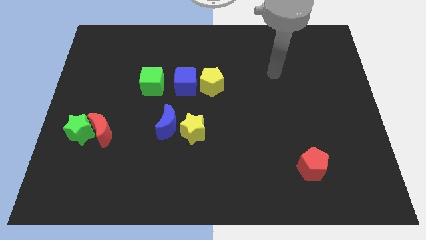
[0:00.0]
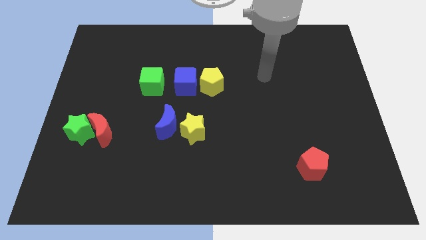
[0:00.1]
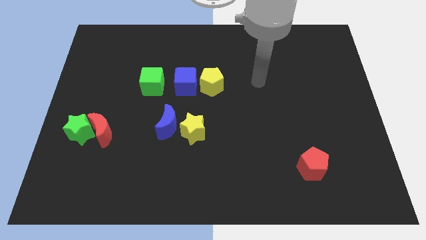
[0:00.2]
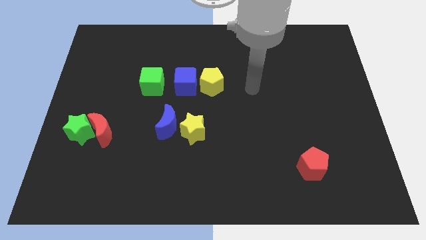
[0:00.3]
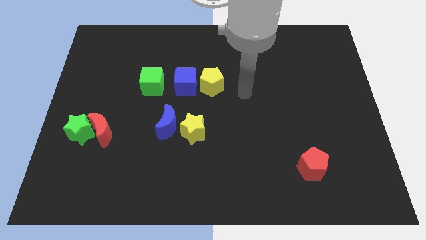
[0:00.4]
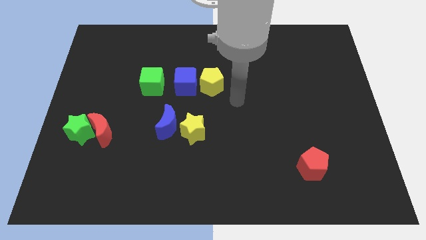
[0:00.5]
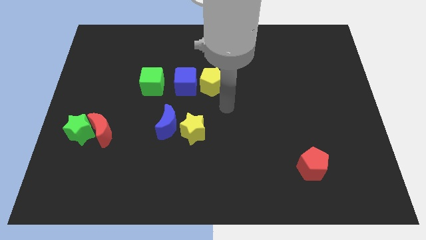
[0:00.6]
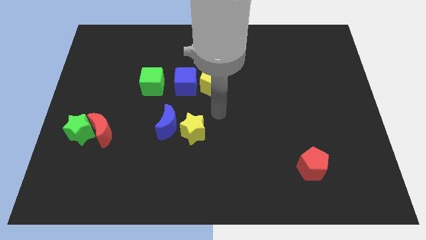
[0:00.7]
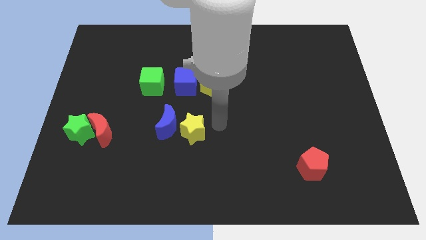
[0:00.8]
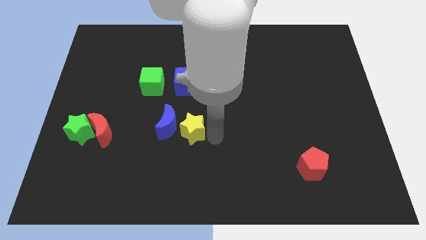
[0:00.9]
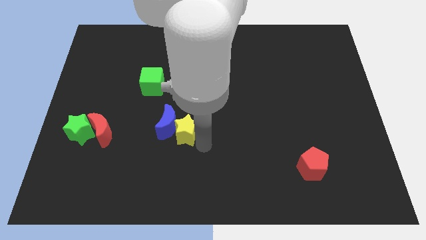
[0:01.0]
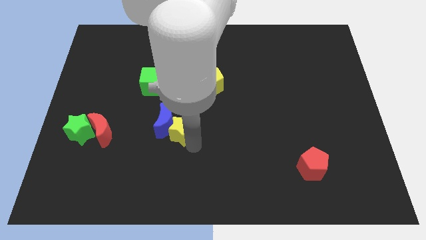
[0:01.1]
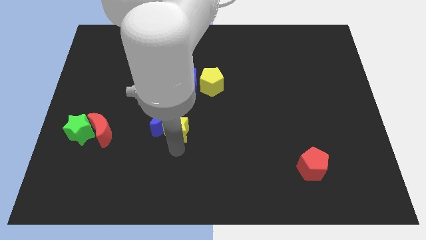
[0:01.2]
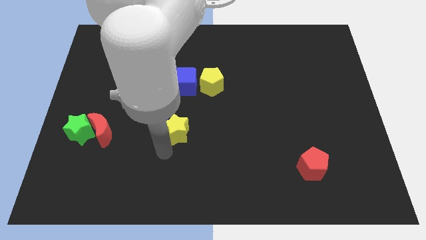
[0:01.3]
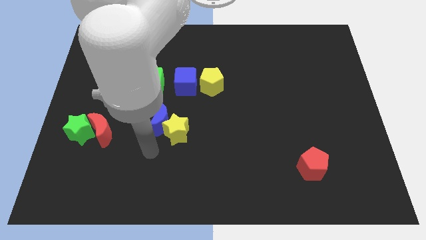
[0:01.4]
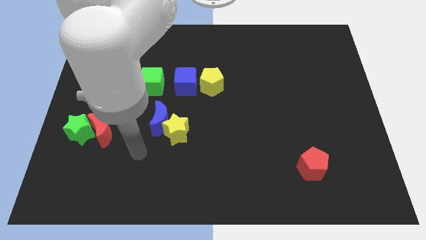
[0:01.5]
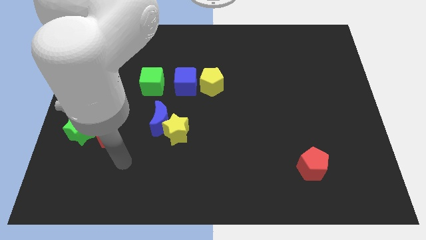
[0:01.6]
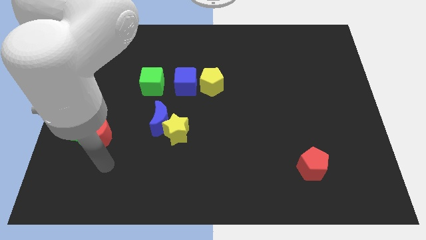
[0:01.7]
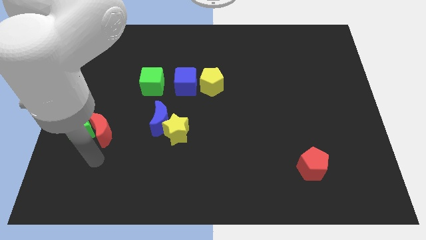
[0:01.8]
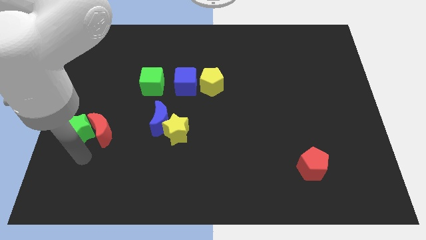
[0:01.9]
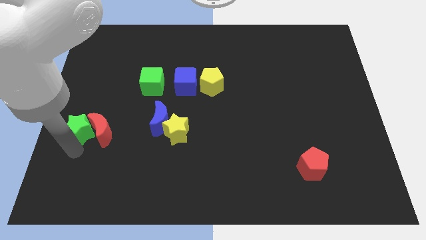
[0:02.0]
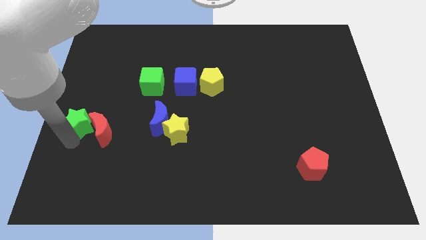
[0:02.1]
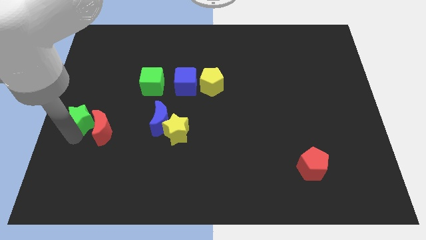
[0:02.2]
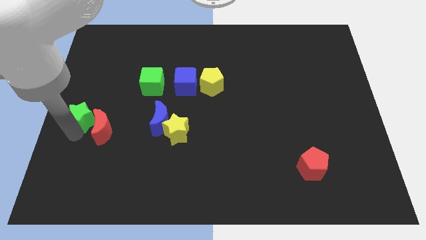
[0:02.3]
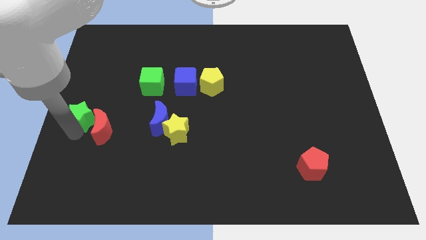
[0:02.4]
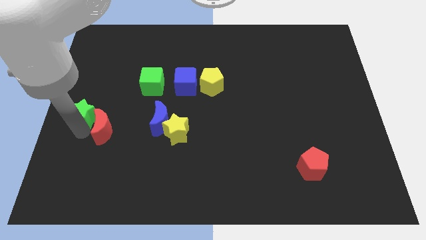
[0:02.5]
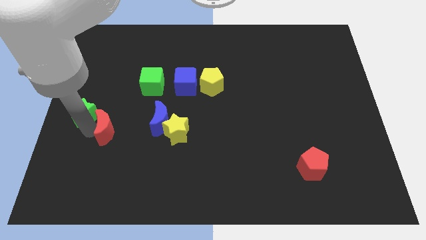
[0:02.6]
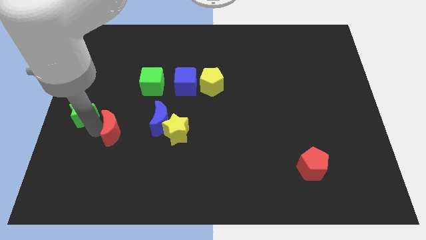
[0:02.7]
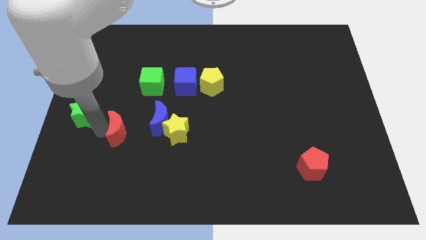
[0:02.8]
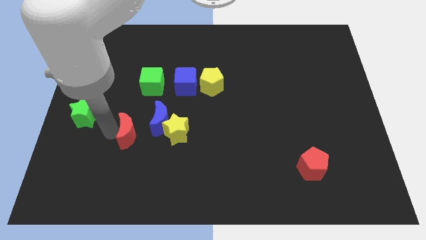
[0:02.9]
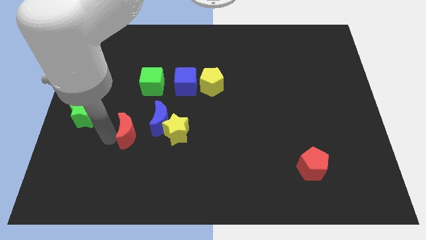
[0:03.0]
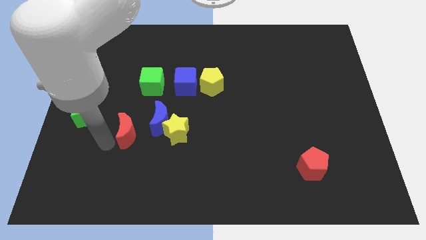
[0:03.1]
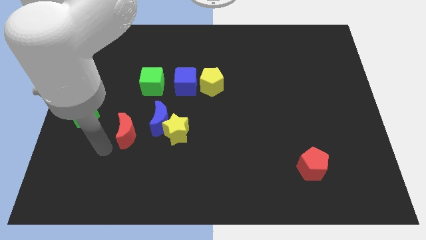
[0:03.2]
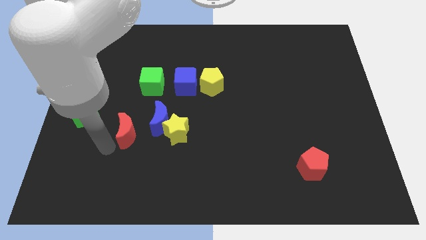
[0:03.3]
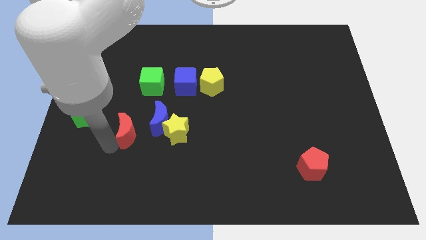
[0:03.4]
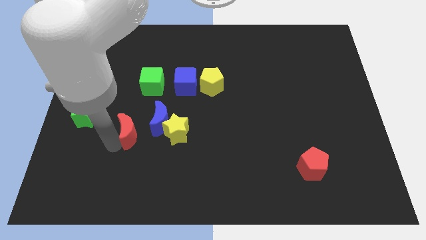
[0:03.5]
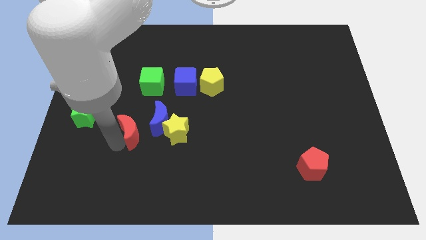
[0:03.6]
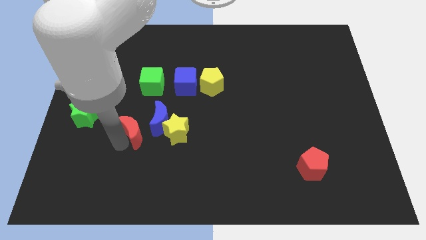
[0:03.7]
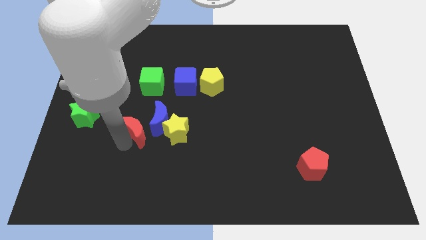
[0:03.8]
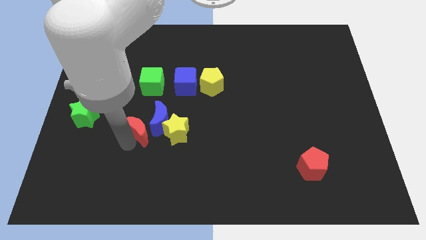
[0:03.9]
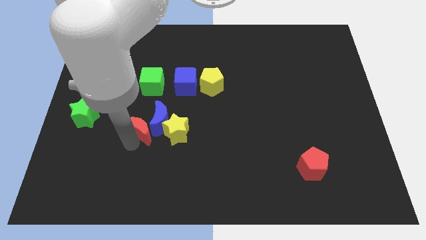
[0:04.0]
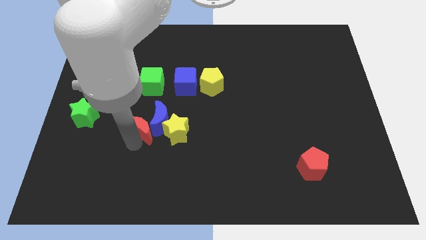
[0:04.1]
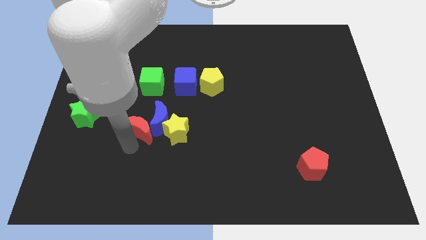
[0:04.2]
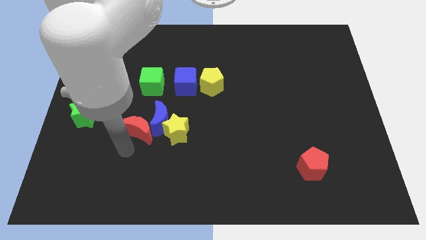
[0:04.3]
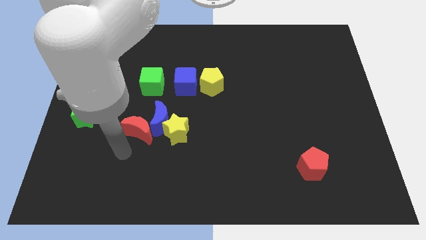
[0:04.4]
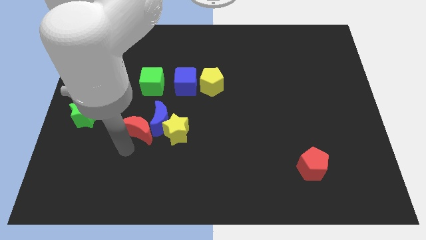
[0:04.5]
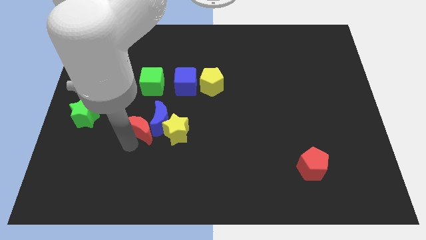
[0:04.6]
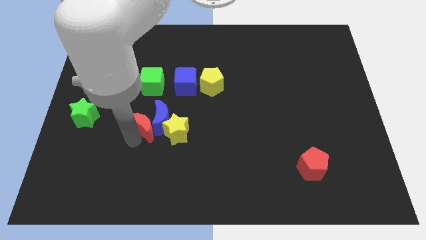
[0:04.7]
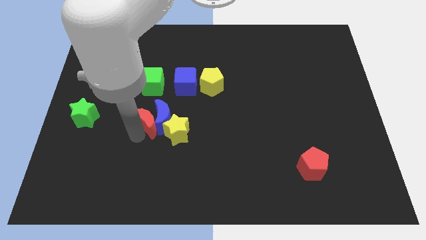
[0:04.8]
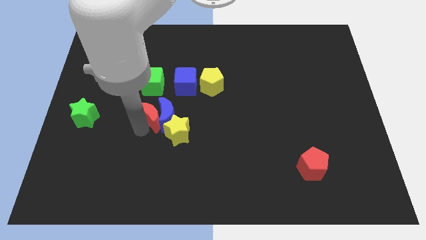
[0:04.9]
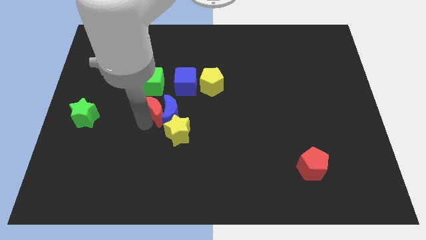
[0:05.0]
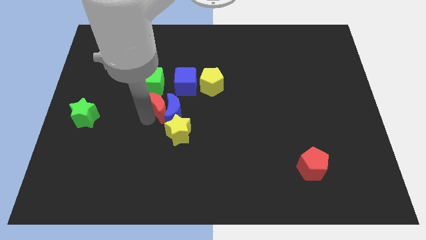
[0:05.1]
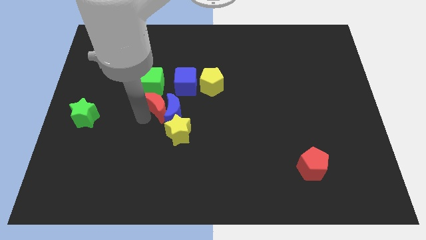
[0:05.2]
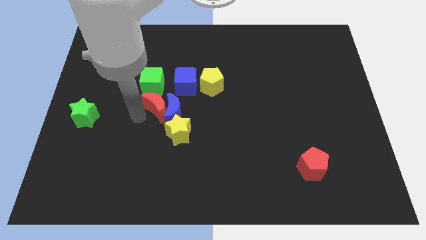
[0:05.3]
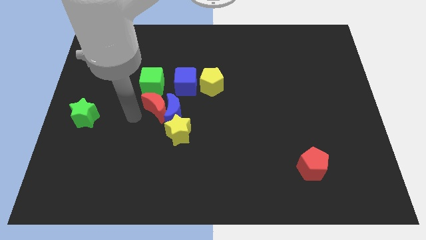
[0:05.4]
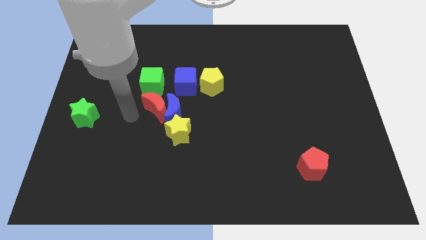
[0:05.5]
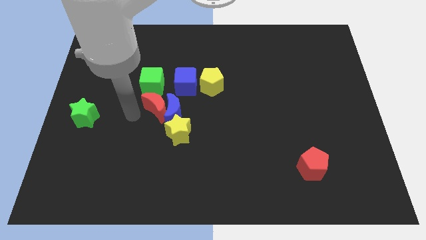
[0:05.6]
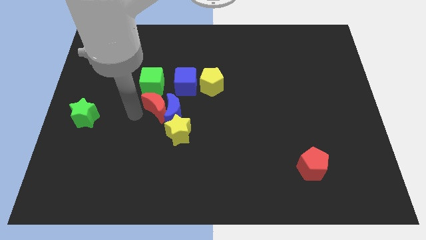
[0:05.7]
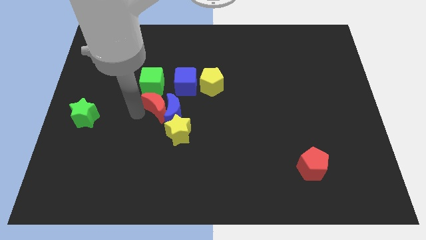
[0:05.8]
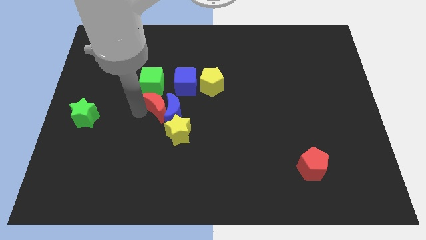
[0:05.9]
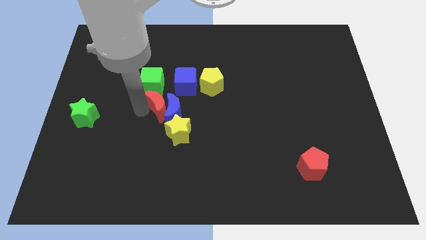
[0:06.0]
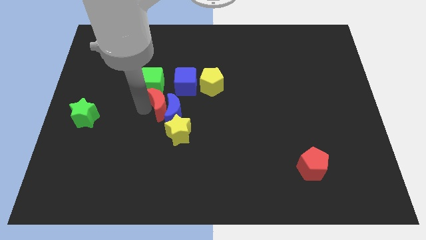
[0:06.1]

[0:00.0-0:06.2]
put the red moon to the middle of the board
